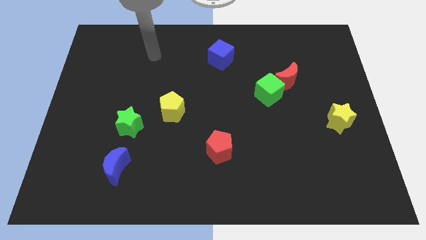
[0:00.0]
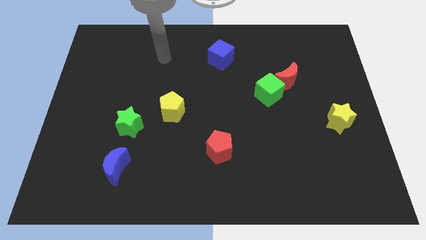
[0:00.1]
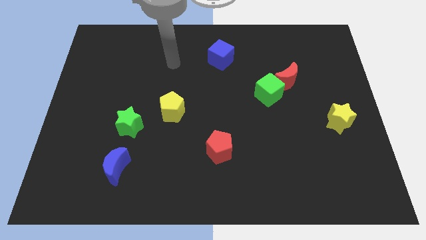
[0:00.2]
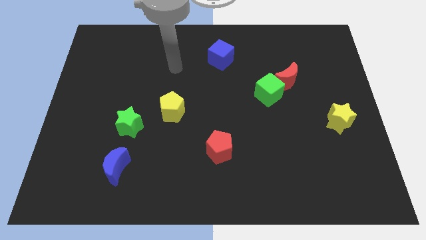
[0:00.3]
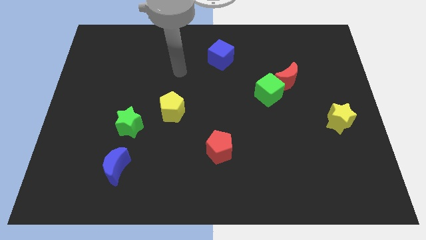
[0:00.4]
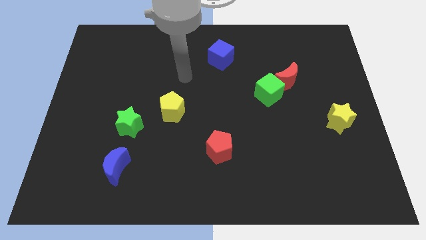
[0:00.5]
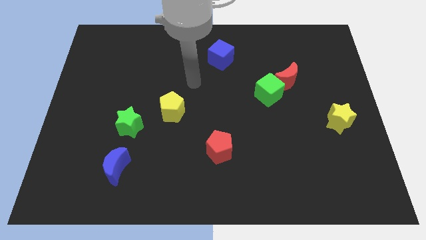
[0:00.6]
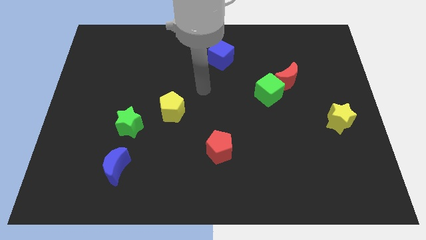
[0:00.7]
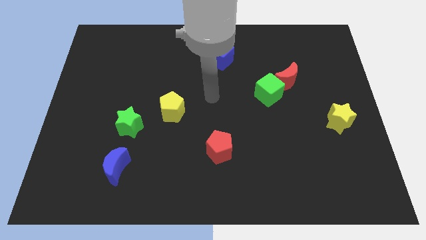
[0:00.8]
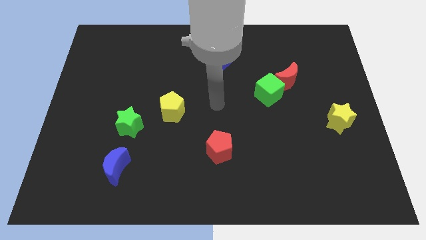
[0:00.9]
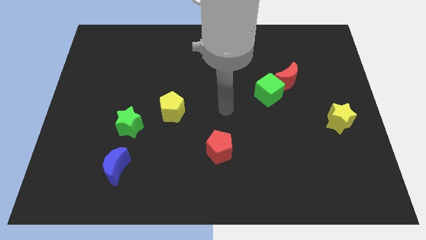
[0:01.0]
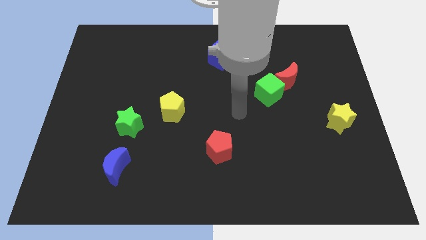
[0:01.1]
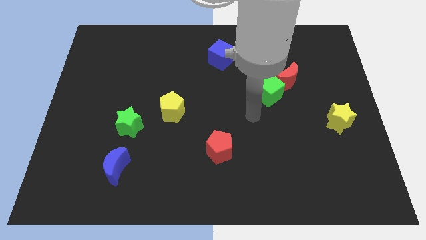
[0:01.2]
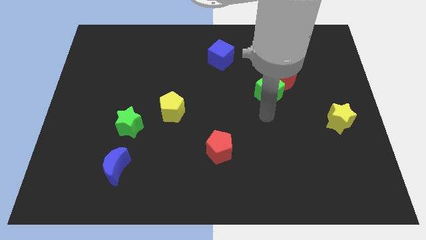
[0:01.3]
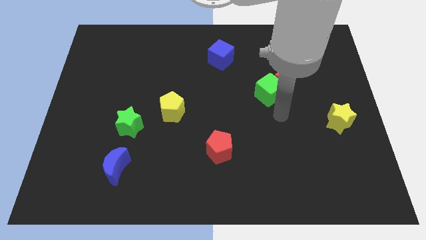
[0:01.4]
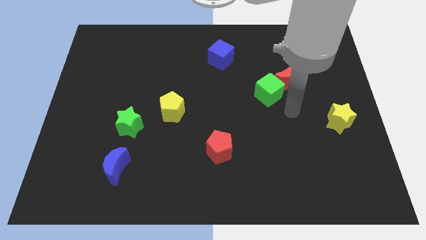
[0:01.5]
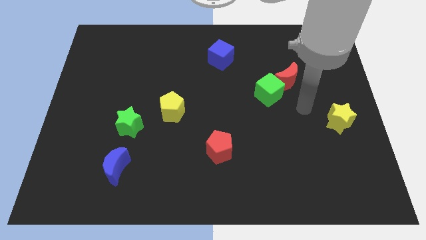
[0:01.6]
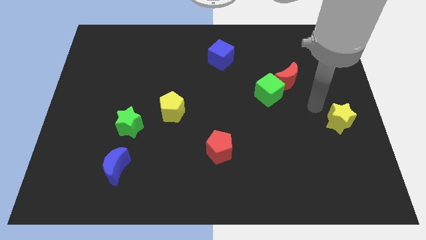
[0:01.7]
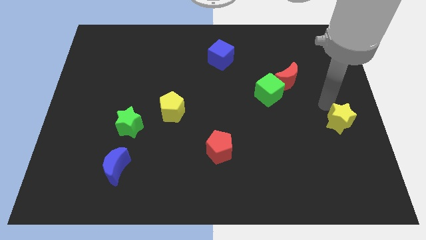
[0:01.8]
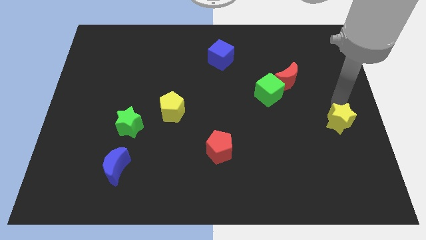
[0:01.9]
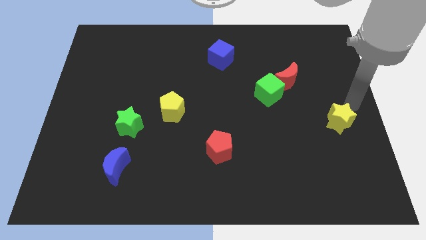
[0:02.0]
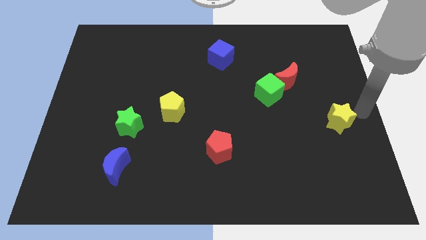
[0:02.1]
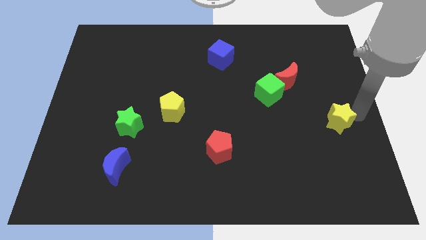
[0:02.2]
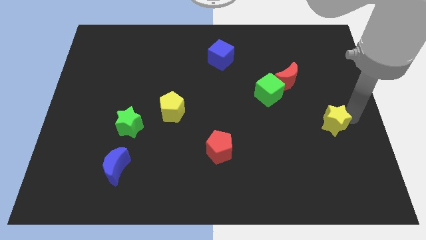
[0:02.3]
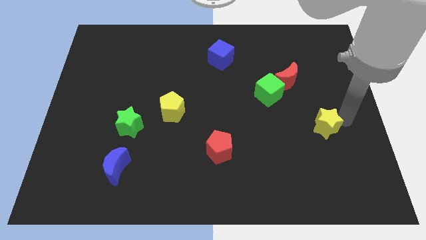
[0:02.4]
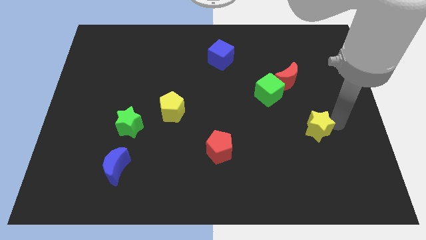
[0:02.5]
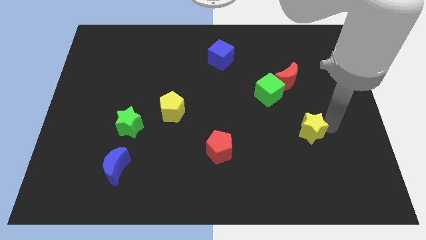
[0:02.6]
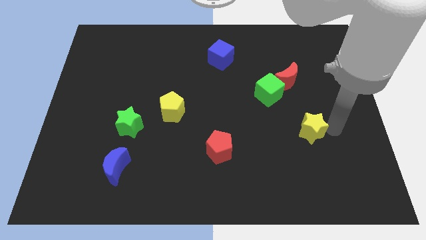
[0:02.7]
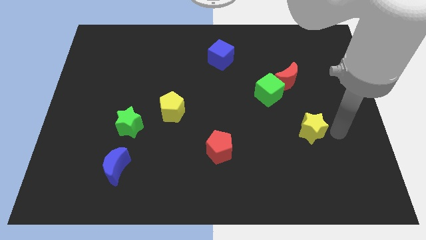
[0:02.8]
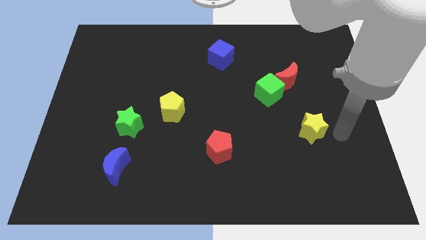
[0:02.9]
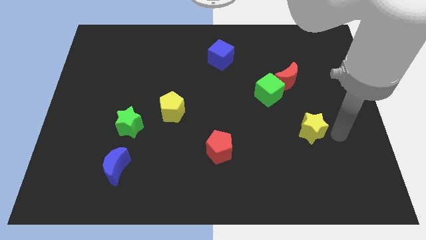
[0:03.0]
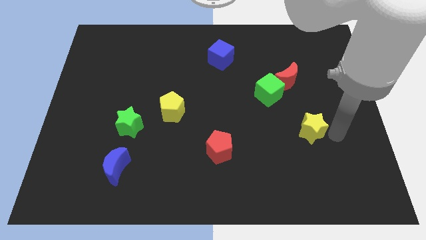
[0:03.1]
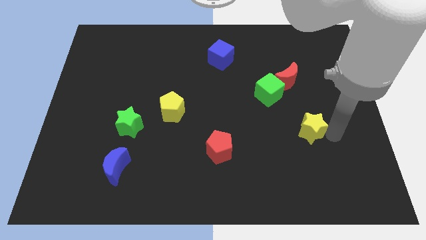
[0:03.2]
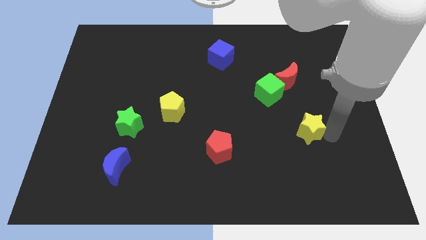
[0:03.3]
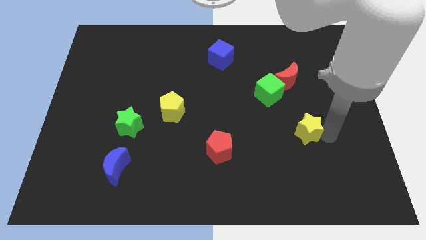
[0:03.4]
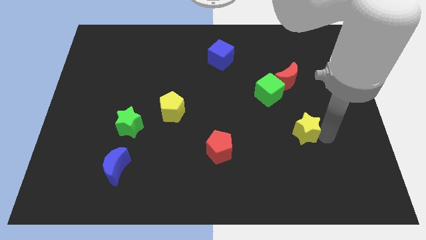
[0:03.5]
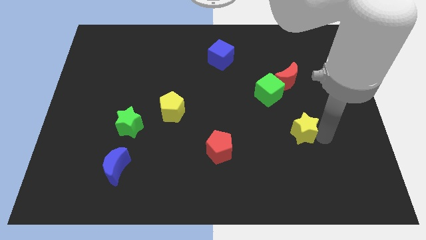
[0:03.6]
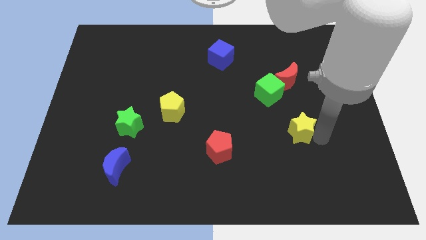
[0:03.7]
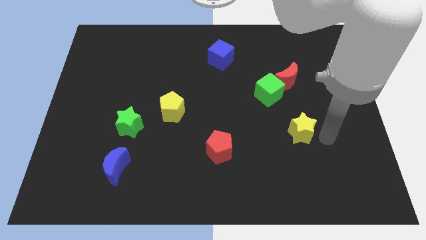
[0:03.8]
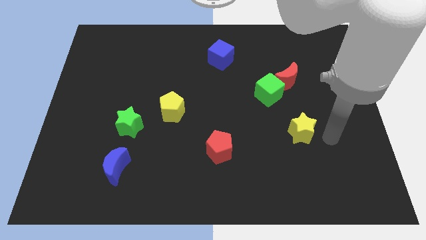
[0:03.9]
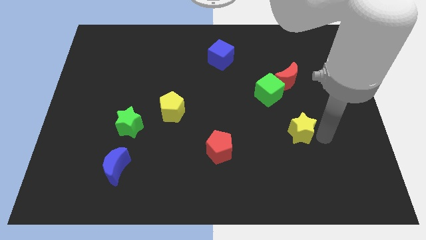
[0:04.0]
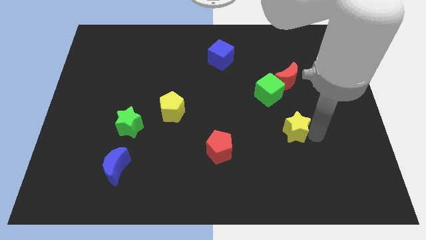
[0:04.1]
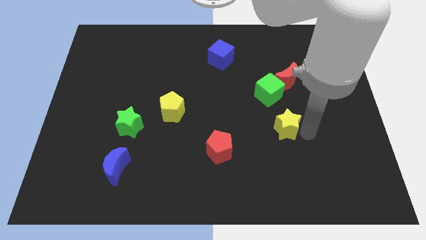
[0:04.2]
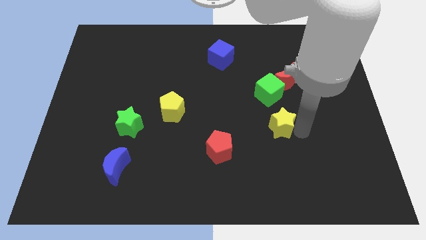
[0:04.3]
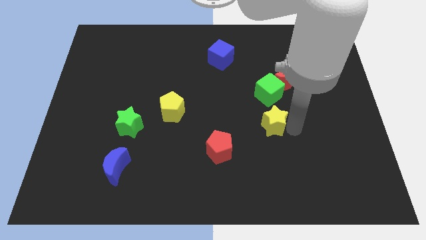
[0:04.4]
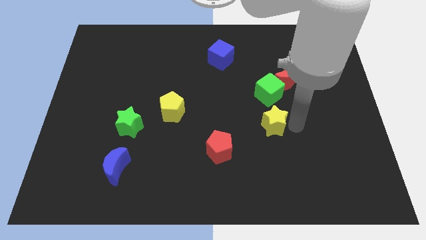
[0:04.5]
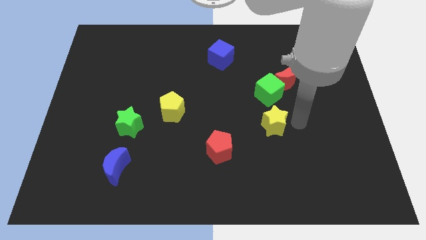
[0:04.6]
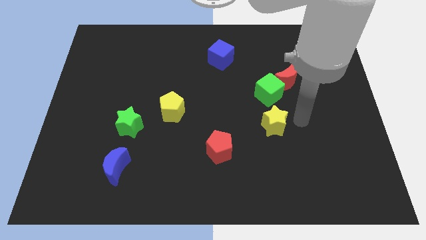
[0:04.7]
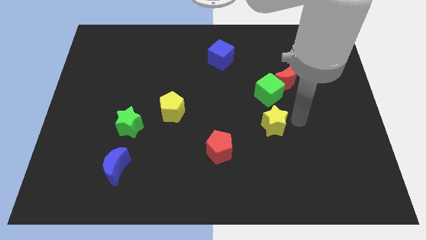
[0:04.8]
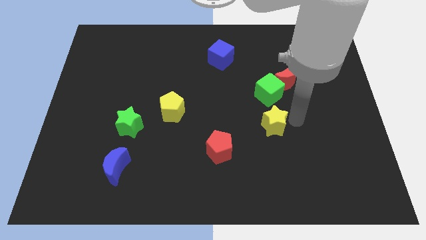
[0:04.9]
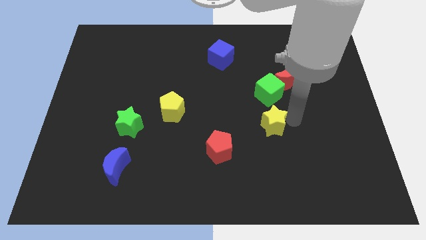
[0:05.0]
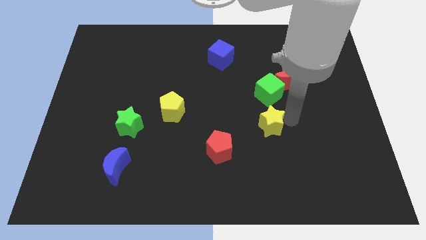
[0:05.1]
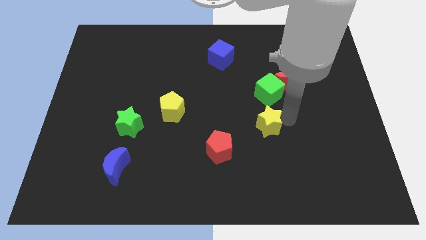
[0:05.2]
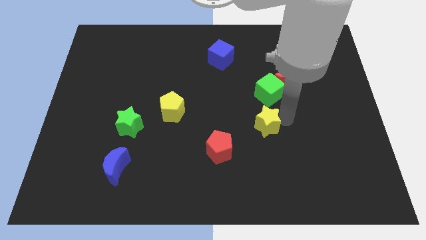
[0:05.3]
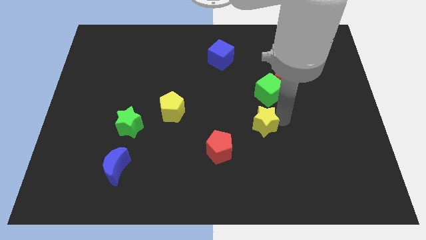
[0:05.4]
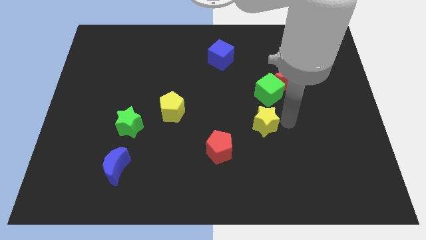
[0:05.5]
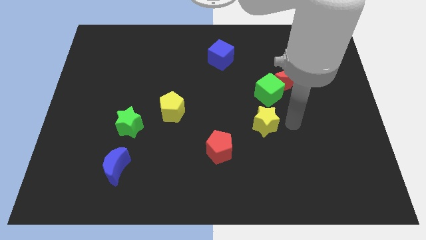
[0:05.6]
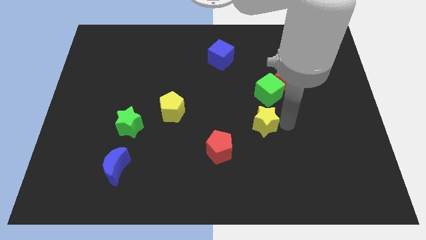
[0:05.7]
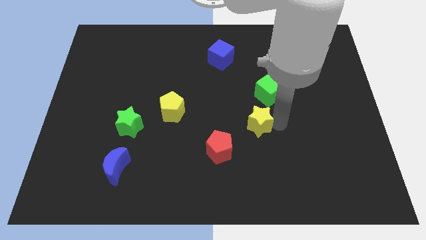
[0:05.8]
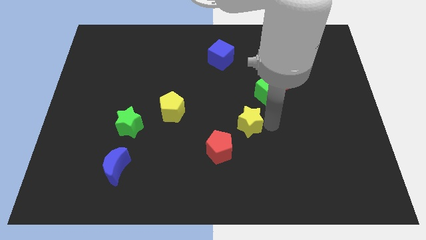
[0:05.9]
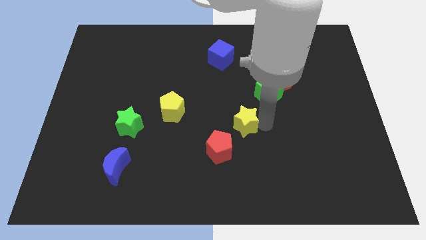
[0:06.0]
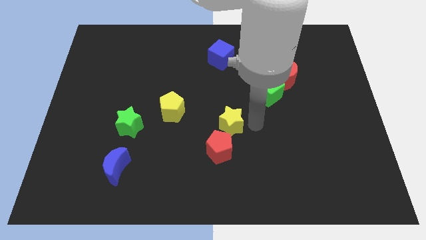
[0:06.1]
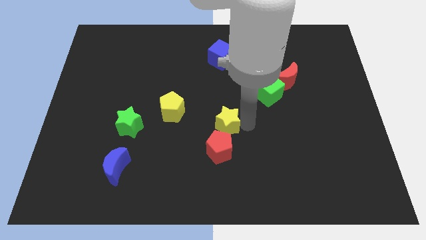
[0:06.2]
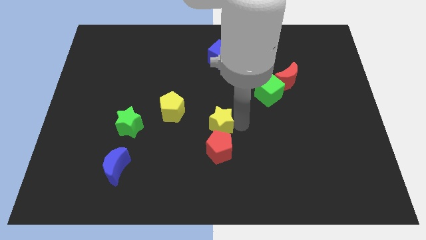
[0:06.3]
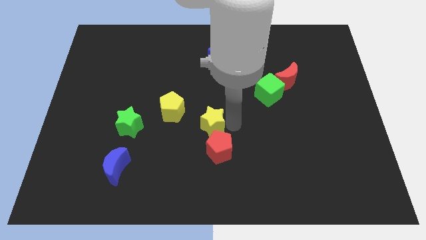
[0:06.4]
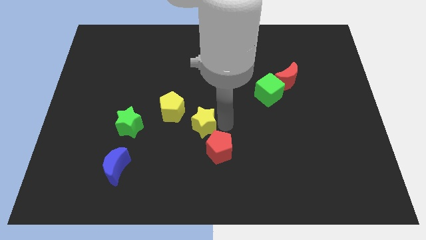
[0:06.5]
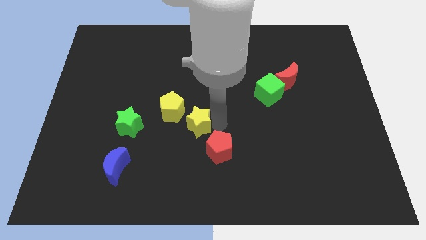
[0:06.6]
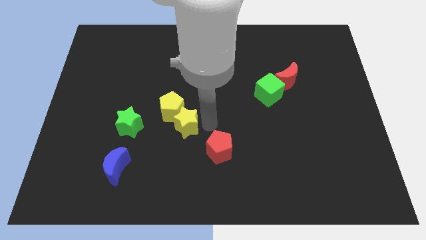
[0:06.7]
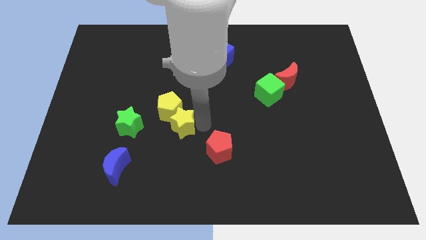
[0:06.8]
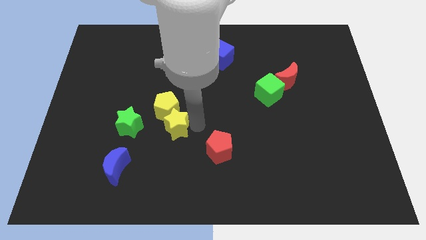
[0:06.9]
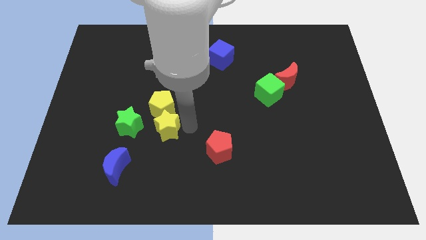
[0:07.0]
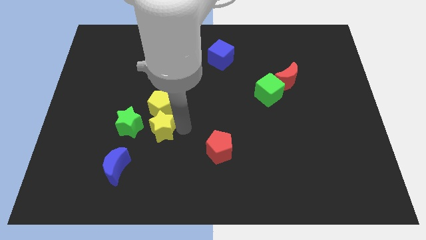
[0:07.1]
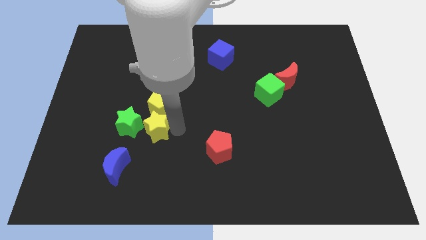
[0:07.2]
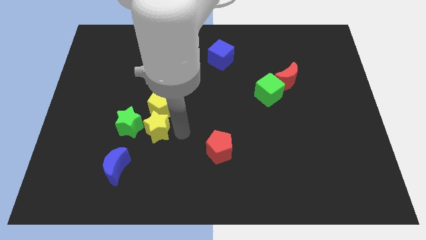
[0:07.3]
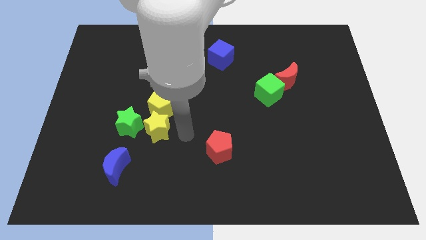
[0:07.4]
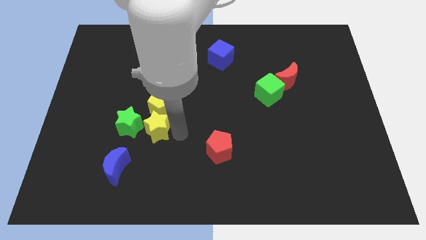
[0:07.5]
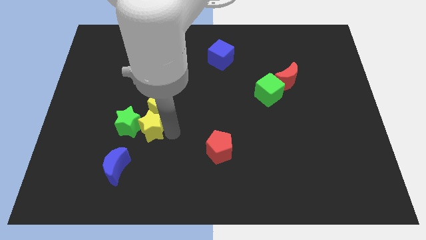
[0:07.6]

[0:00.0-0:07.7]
put the yellow star to the green star
